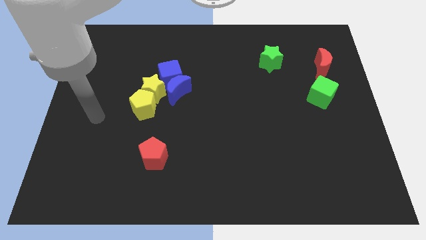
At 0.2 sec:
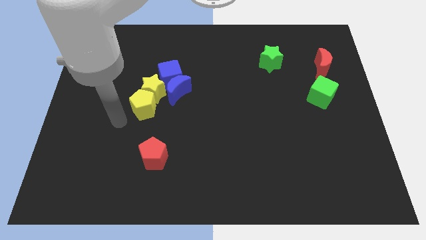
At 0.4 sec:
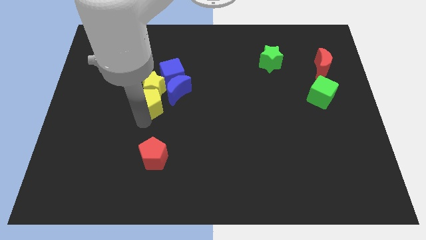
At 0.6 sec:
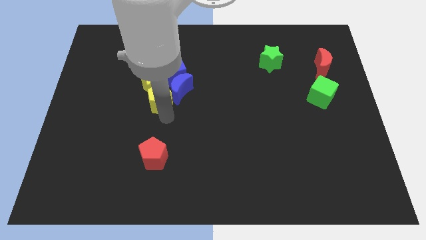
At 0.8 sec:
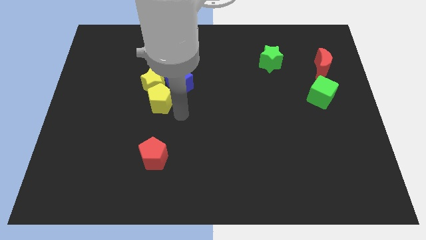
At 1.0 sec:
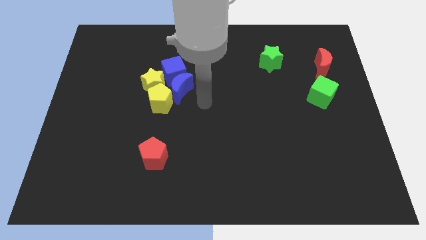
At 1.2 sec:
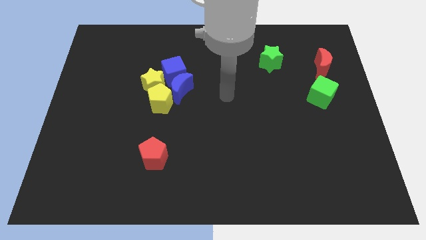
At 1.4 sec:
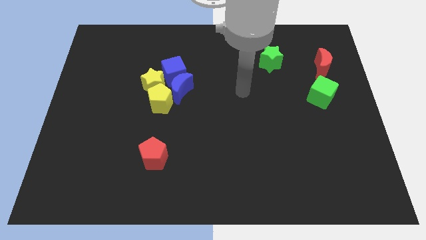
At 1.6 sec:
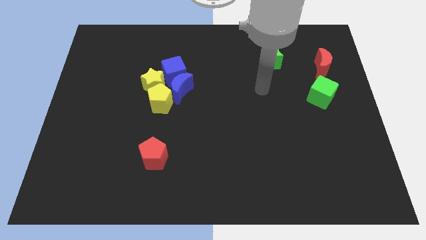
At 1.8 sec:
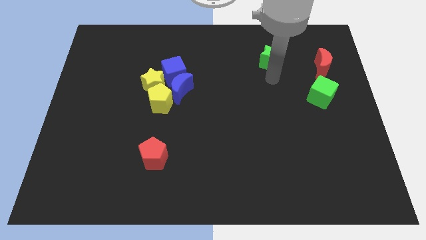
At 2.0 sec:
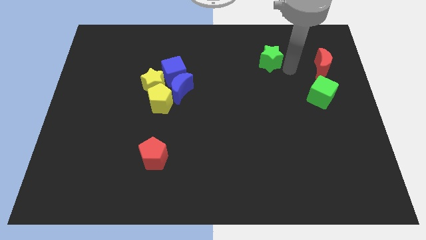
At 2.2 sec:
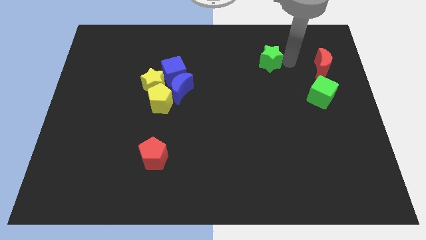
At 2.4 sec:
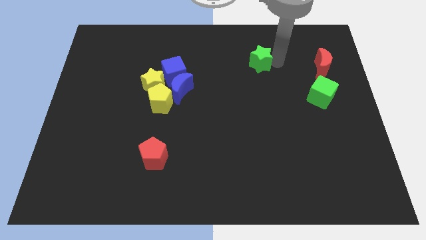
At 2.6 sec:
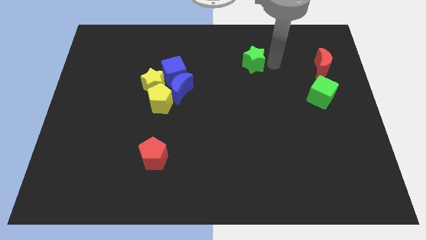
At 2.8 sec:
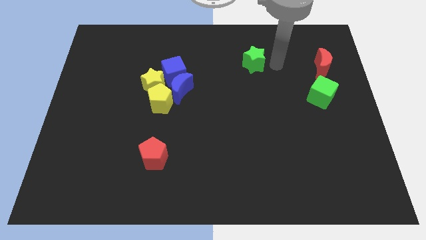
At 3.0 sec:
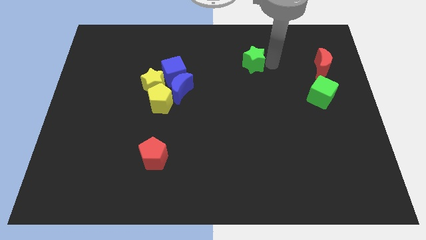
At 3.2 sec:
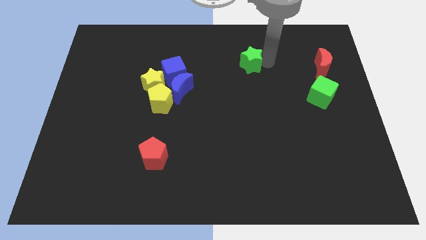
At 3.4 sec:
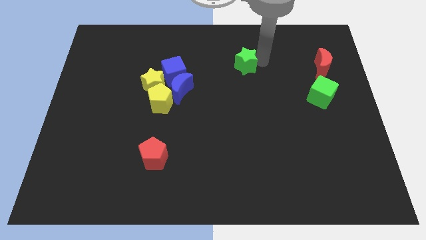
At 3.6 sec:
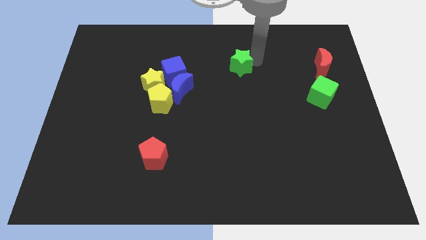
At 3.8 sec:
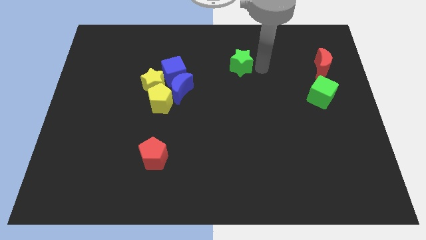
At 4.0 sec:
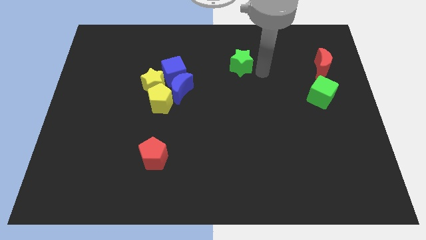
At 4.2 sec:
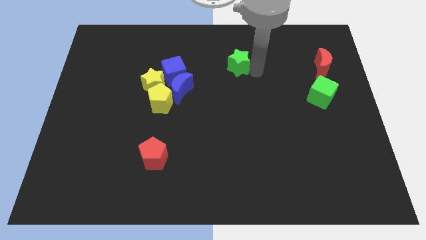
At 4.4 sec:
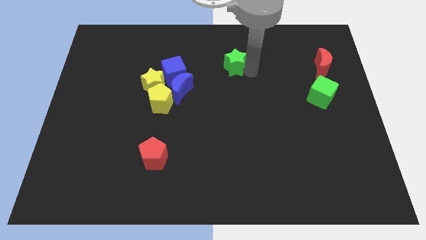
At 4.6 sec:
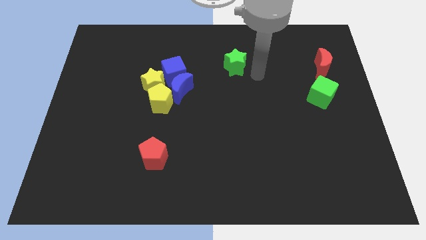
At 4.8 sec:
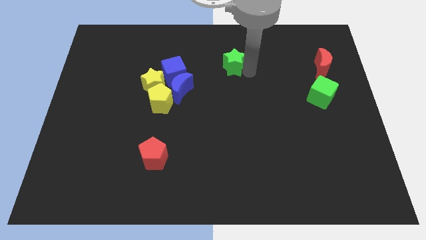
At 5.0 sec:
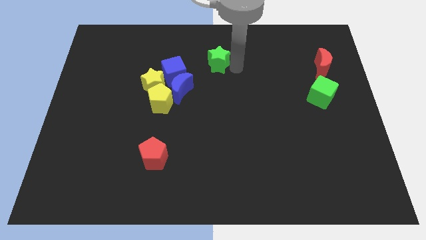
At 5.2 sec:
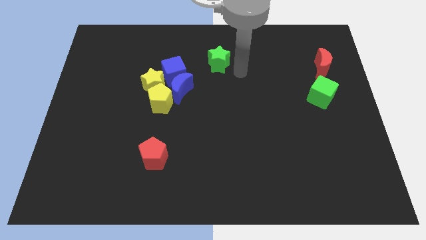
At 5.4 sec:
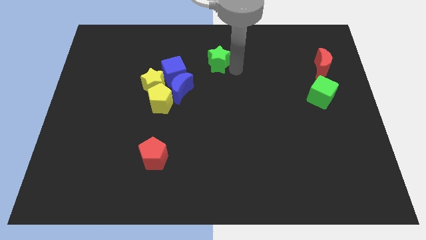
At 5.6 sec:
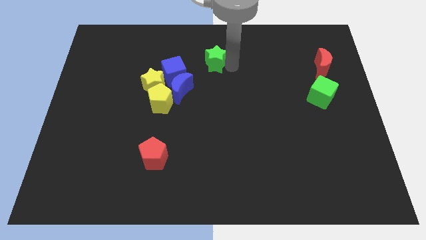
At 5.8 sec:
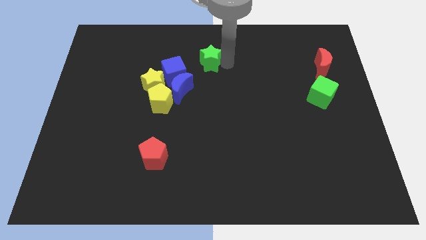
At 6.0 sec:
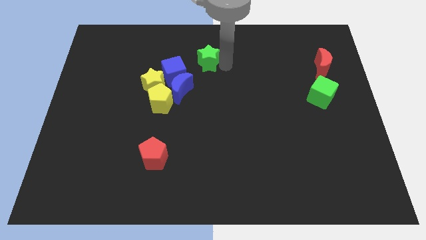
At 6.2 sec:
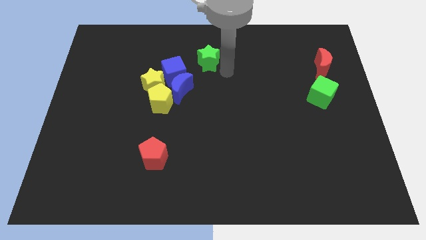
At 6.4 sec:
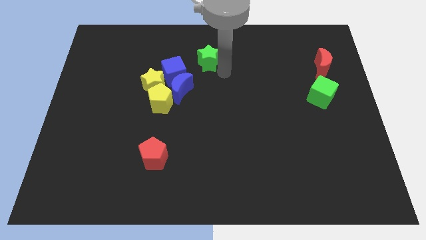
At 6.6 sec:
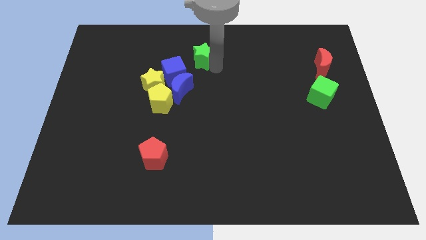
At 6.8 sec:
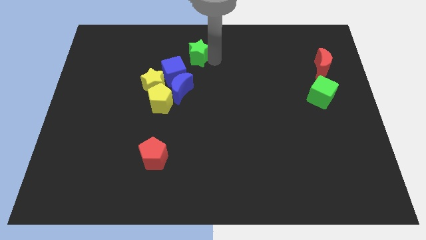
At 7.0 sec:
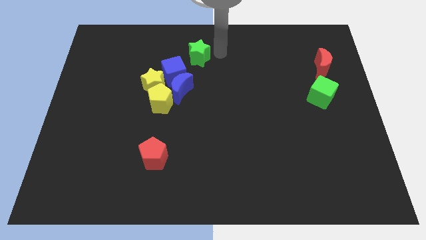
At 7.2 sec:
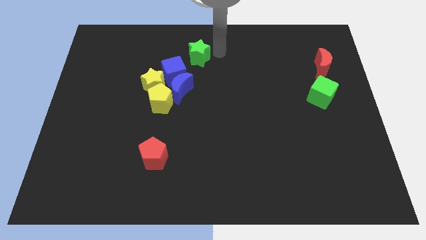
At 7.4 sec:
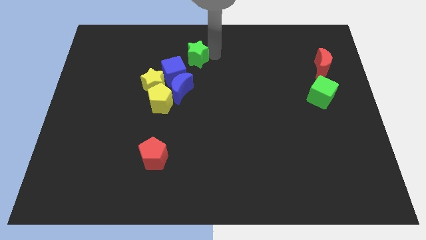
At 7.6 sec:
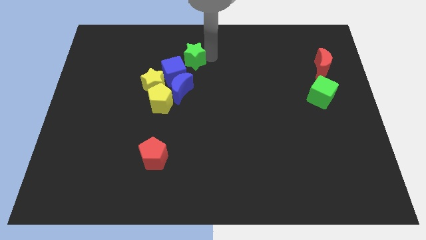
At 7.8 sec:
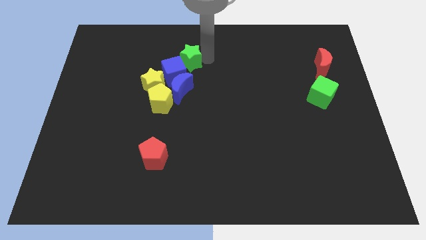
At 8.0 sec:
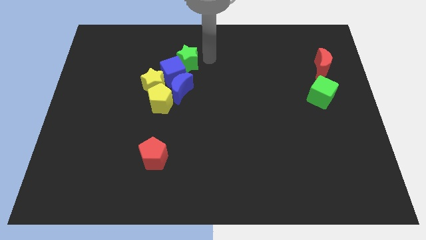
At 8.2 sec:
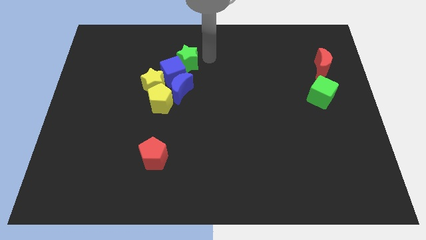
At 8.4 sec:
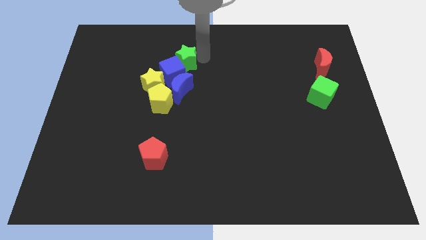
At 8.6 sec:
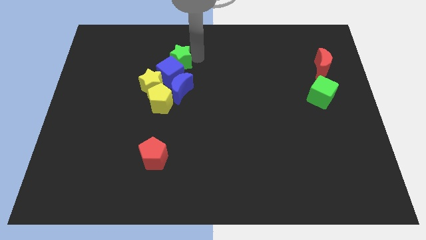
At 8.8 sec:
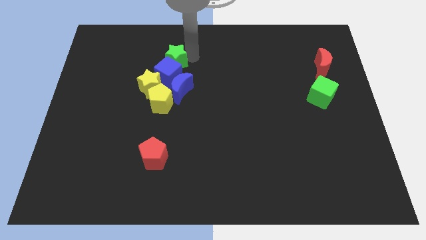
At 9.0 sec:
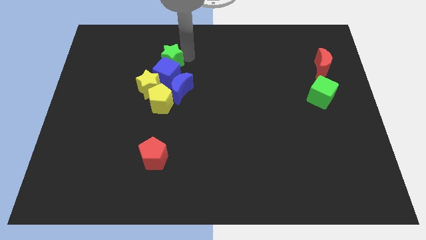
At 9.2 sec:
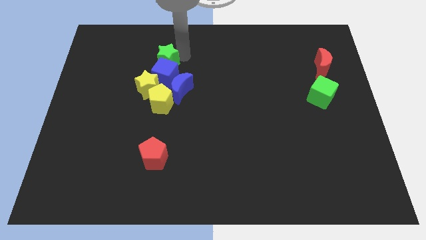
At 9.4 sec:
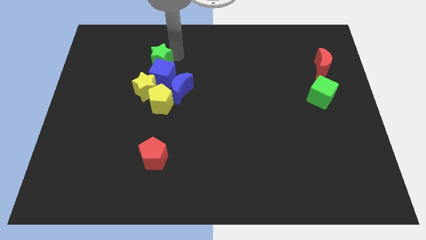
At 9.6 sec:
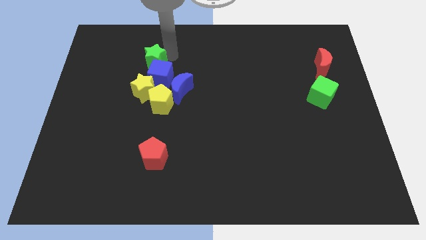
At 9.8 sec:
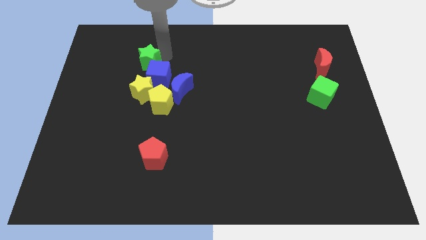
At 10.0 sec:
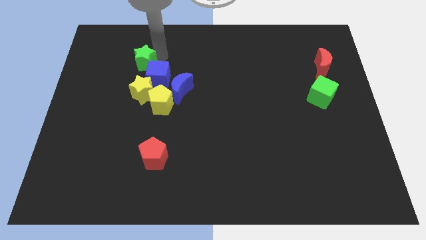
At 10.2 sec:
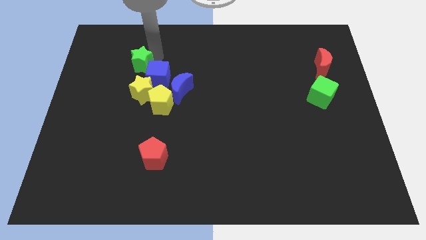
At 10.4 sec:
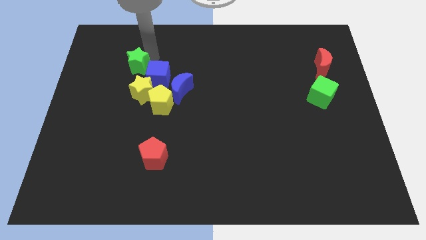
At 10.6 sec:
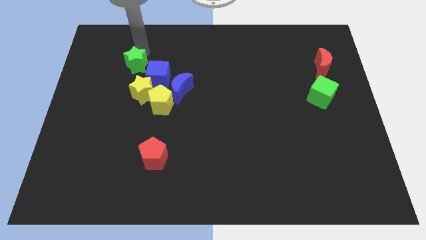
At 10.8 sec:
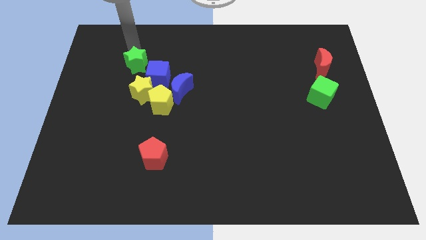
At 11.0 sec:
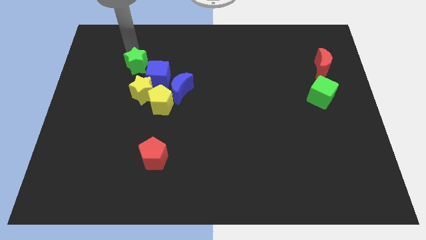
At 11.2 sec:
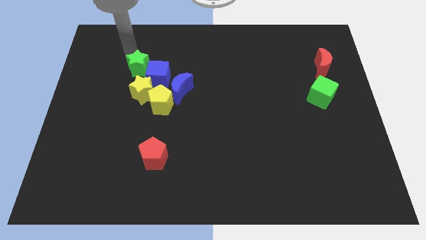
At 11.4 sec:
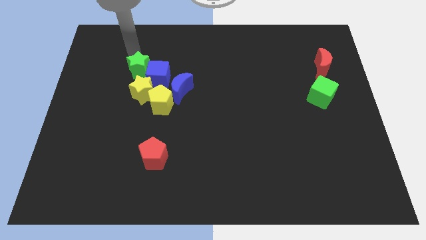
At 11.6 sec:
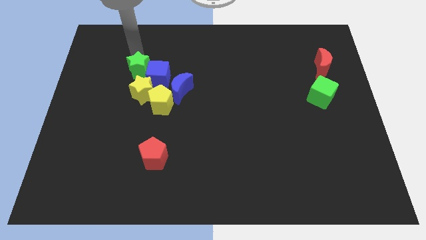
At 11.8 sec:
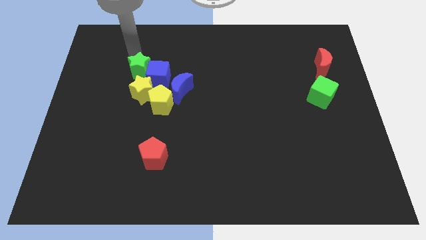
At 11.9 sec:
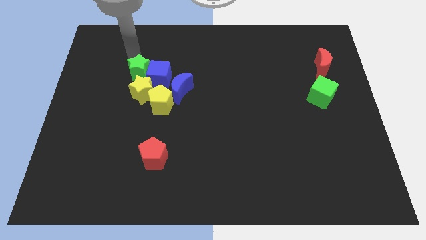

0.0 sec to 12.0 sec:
push the green star to the top left of the yellow pentagon

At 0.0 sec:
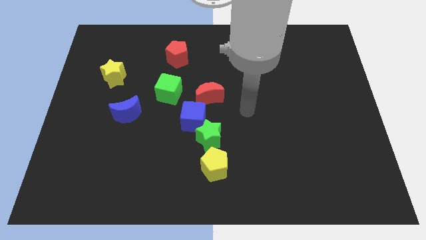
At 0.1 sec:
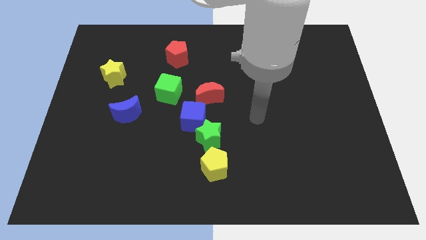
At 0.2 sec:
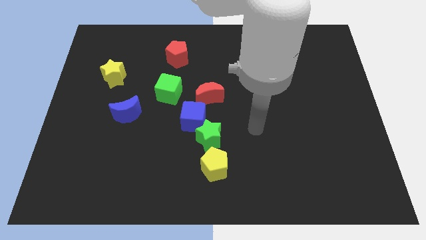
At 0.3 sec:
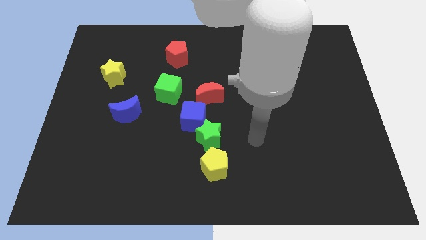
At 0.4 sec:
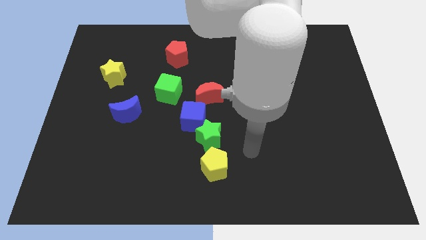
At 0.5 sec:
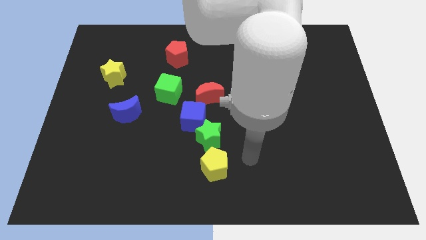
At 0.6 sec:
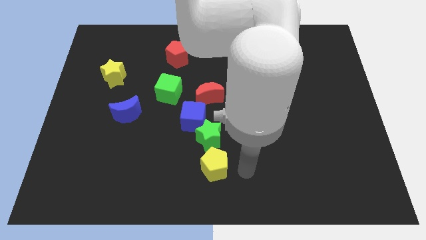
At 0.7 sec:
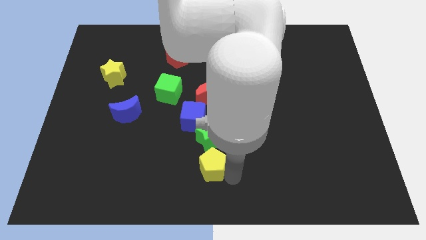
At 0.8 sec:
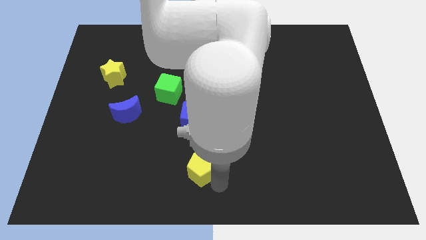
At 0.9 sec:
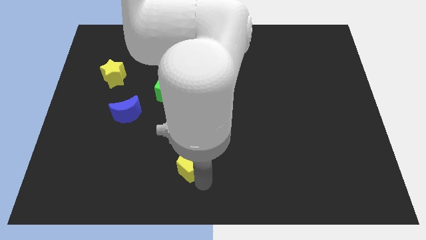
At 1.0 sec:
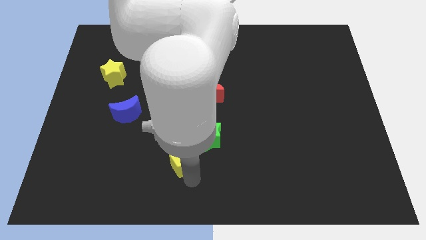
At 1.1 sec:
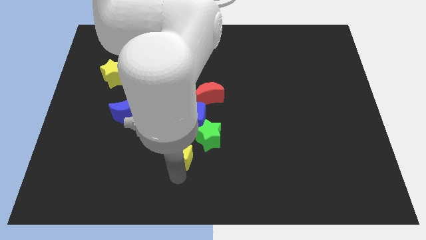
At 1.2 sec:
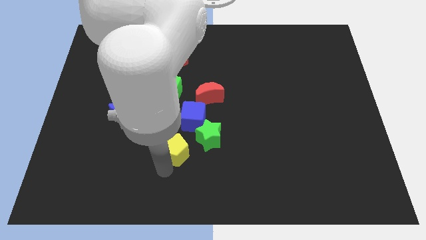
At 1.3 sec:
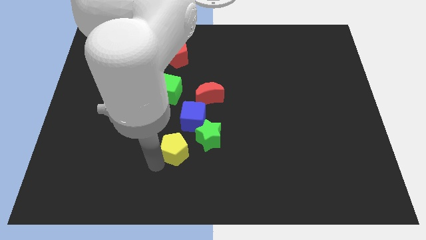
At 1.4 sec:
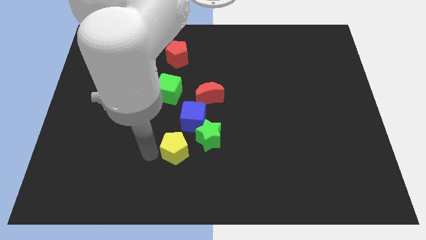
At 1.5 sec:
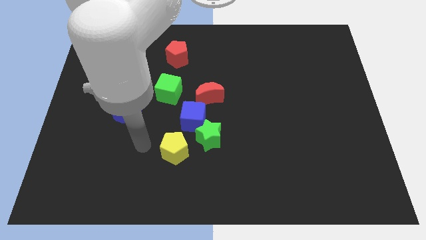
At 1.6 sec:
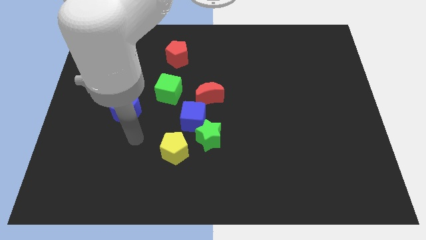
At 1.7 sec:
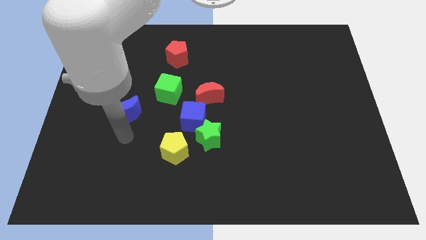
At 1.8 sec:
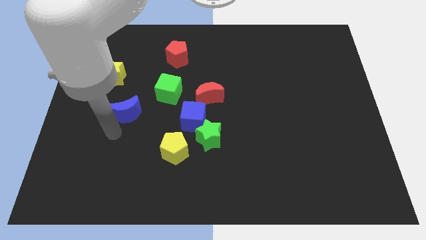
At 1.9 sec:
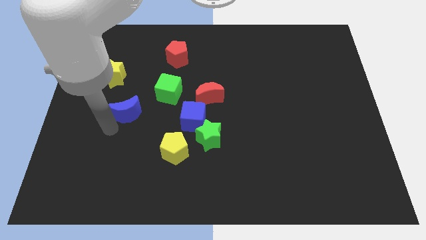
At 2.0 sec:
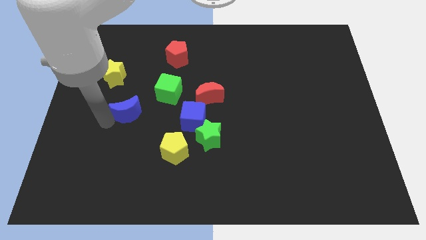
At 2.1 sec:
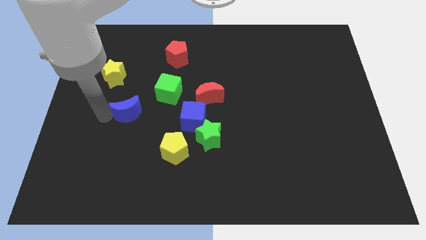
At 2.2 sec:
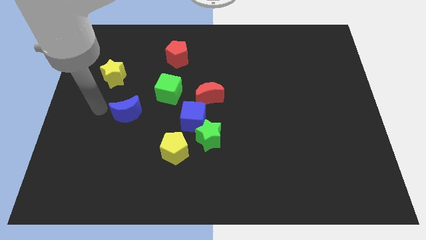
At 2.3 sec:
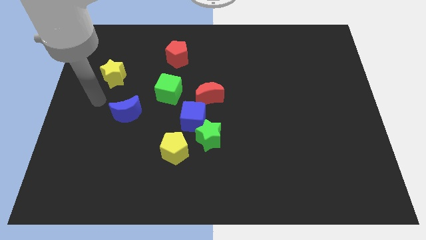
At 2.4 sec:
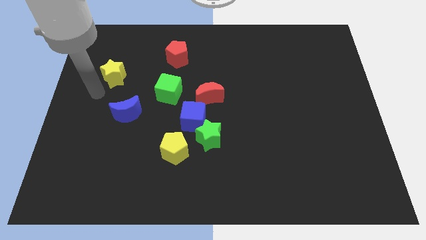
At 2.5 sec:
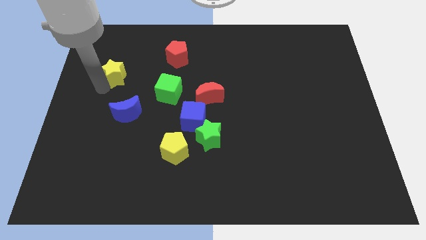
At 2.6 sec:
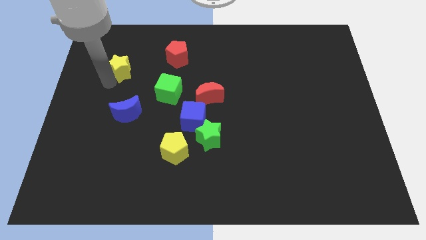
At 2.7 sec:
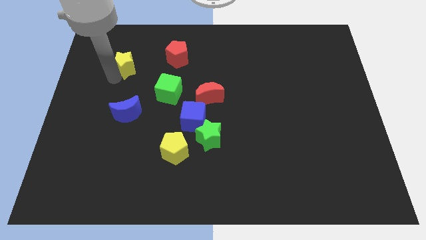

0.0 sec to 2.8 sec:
move the yellow star to the left side of the red pentagon
